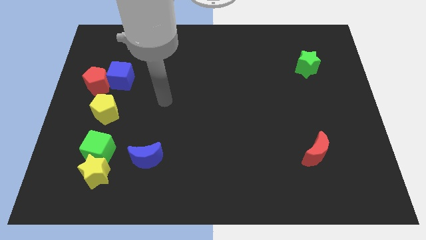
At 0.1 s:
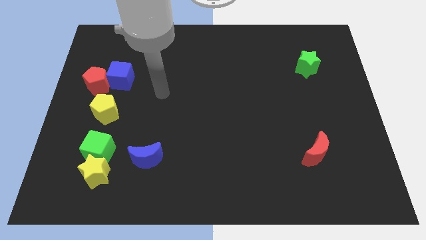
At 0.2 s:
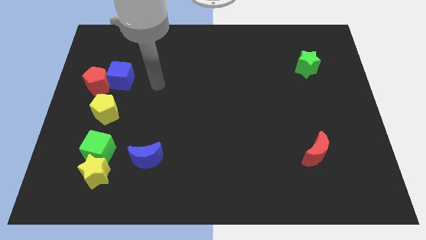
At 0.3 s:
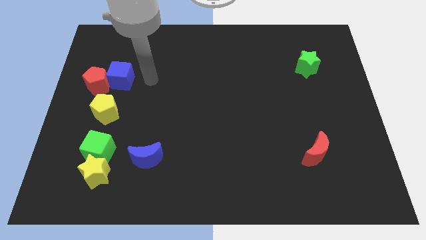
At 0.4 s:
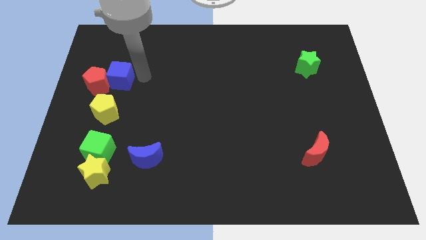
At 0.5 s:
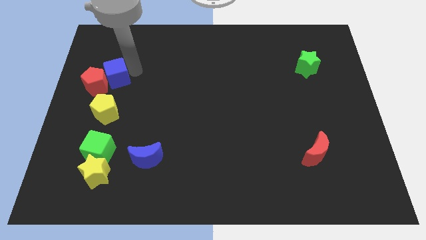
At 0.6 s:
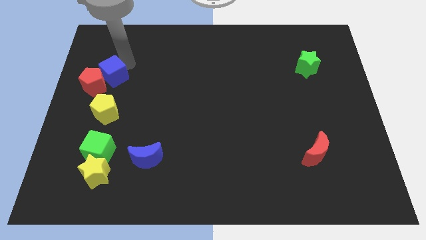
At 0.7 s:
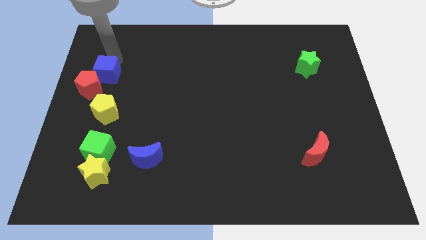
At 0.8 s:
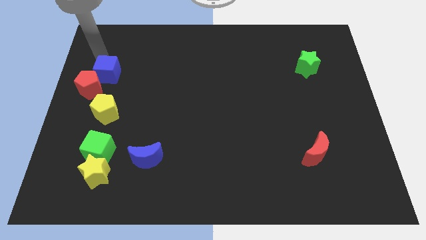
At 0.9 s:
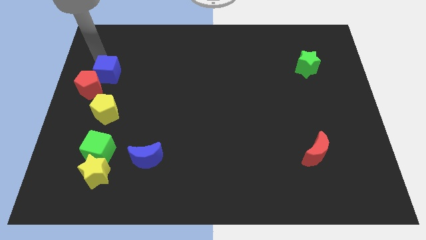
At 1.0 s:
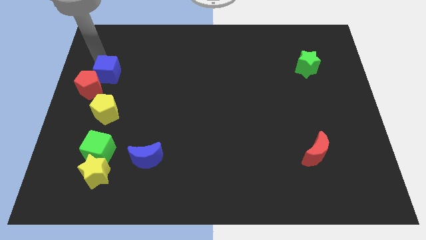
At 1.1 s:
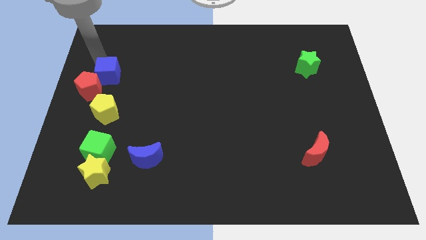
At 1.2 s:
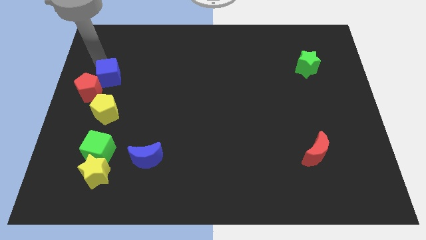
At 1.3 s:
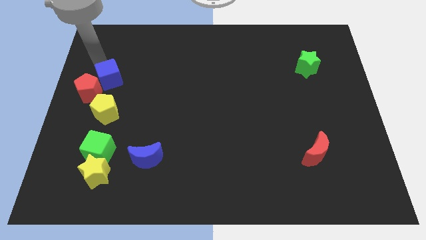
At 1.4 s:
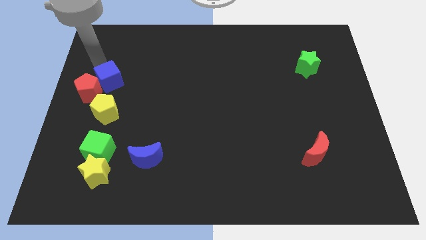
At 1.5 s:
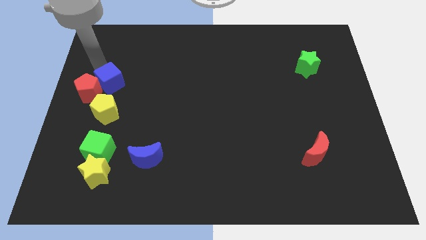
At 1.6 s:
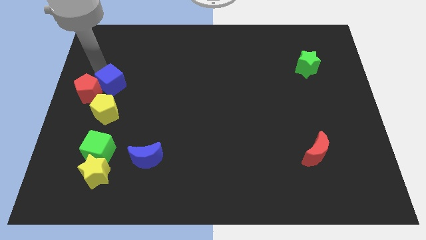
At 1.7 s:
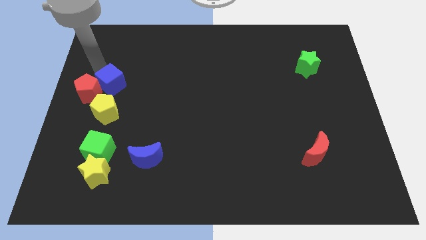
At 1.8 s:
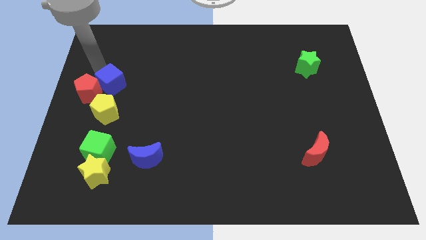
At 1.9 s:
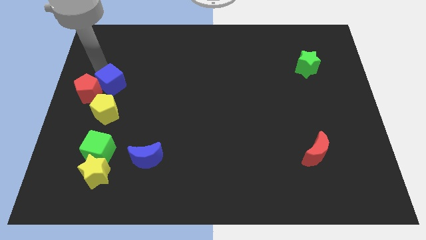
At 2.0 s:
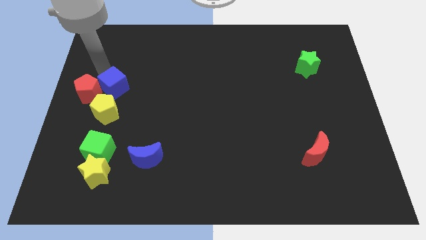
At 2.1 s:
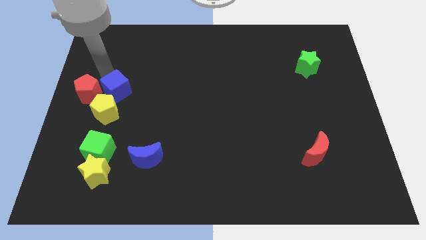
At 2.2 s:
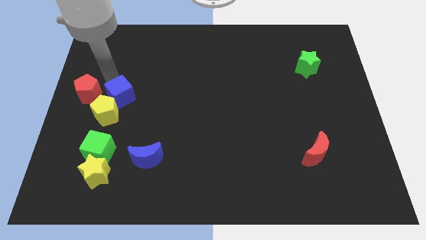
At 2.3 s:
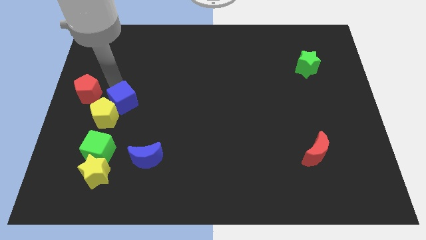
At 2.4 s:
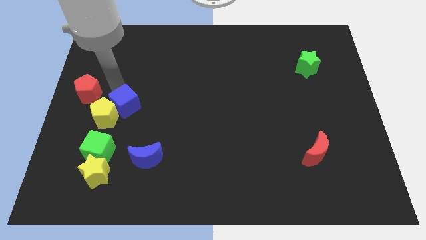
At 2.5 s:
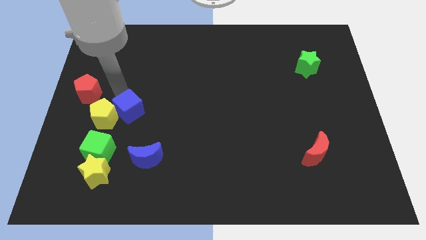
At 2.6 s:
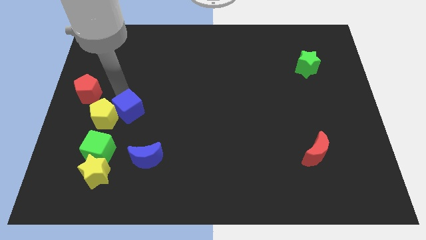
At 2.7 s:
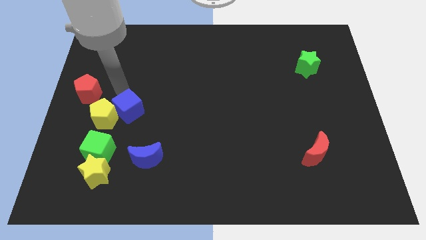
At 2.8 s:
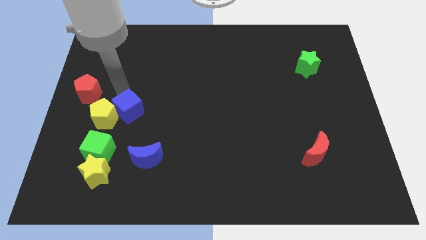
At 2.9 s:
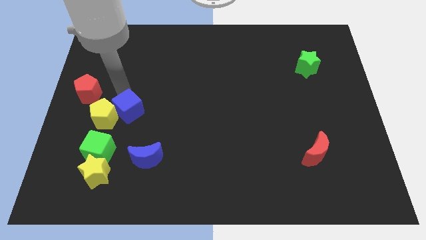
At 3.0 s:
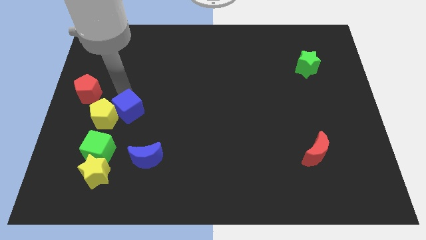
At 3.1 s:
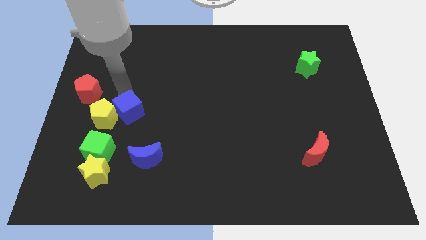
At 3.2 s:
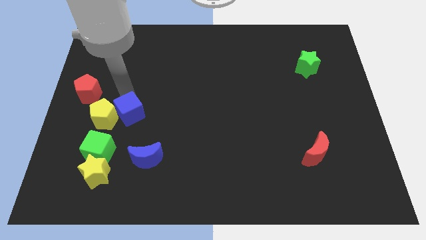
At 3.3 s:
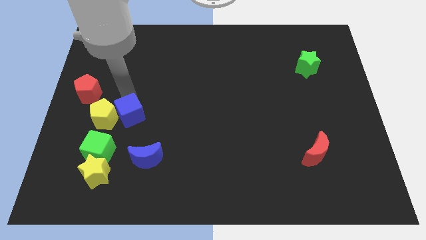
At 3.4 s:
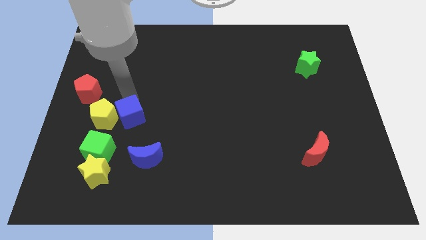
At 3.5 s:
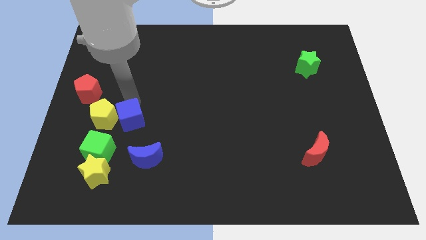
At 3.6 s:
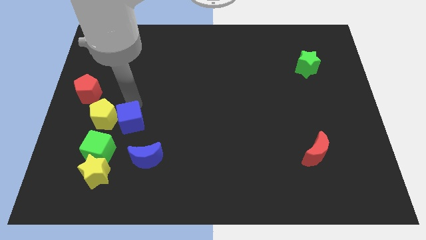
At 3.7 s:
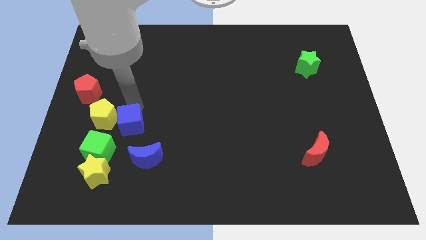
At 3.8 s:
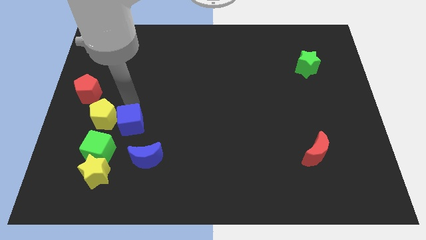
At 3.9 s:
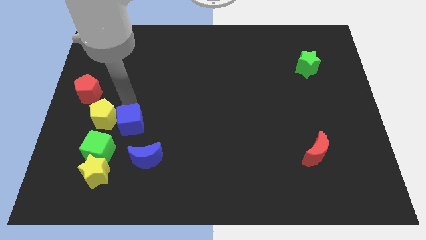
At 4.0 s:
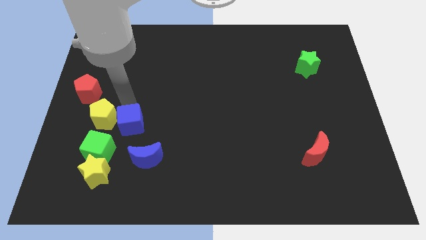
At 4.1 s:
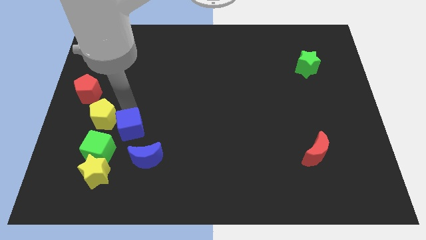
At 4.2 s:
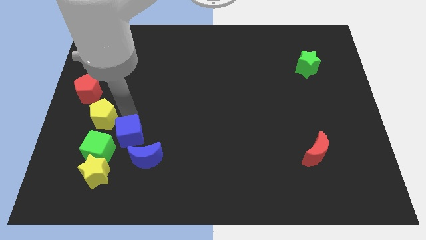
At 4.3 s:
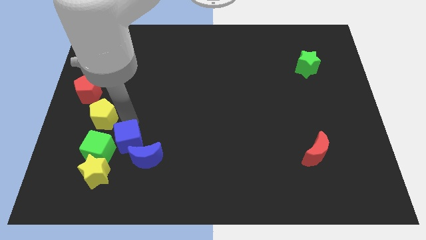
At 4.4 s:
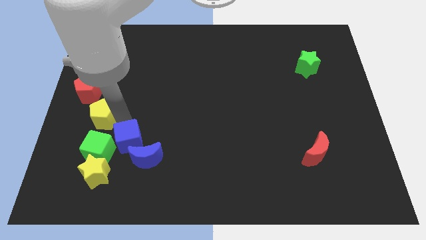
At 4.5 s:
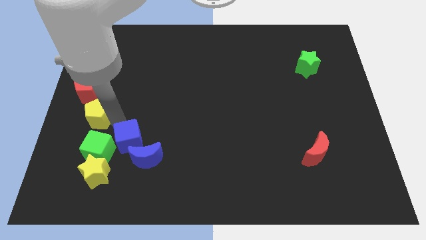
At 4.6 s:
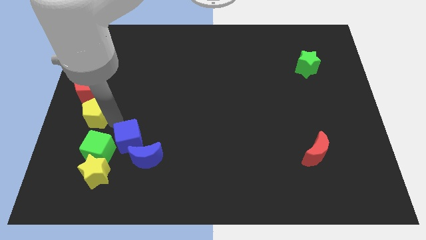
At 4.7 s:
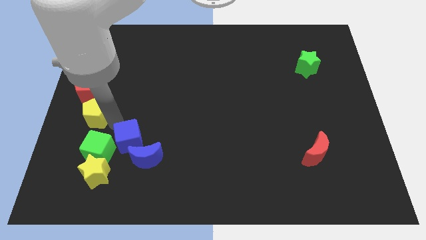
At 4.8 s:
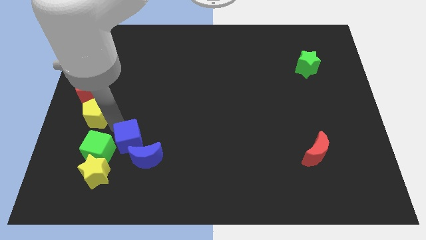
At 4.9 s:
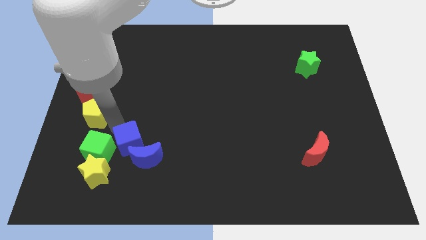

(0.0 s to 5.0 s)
slide the blue cube close to the blue moon

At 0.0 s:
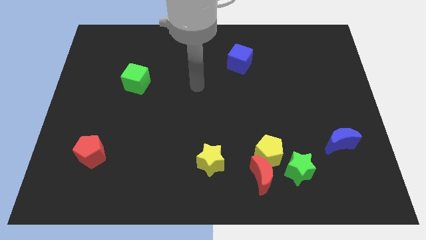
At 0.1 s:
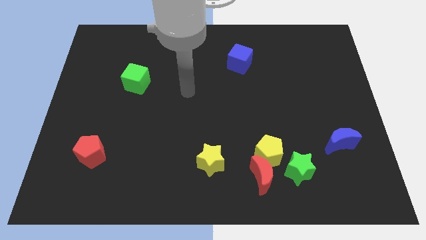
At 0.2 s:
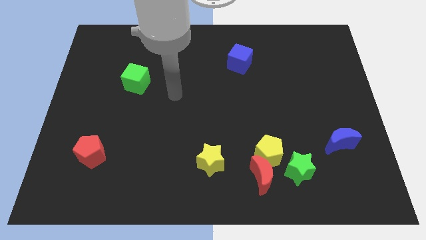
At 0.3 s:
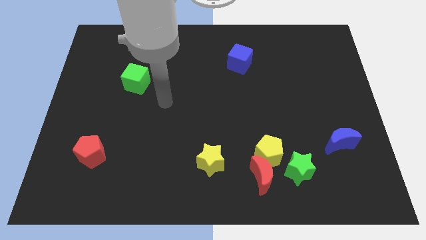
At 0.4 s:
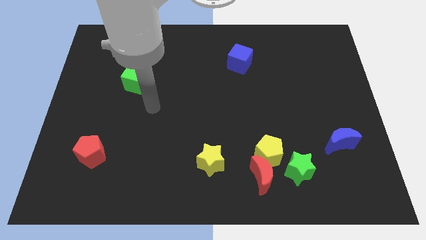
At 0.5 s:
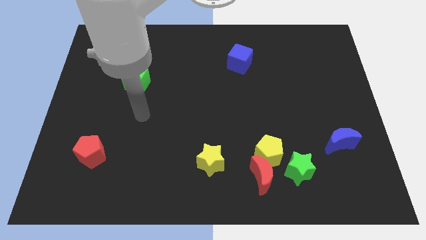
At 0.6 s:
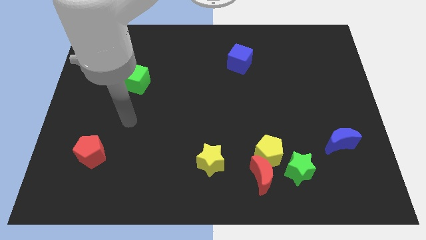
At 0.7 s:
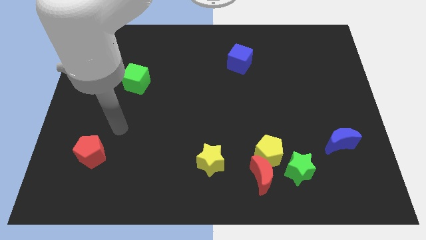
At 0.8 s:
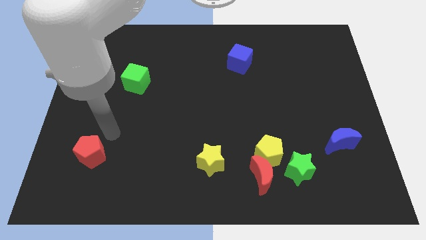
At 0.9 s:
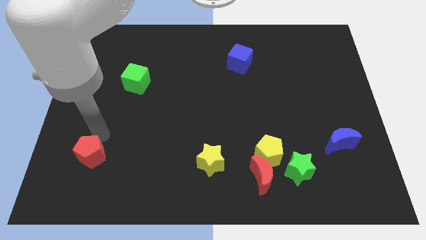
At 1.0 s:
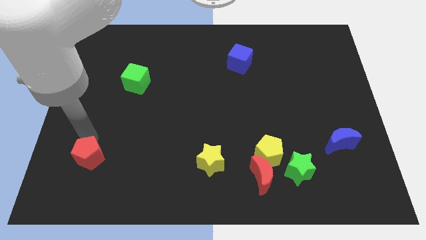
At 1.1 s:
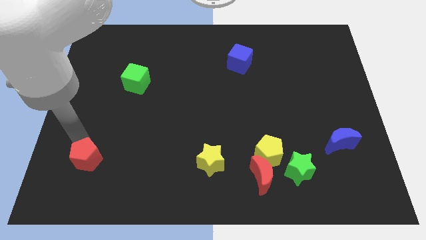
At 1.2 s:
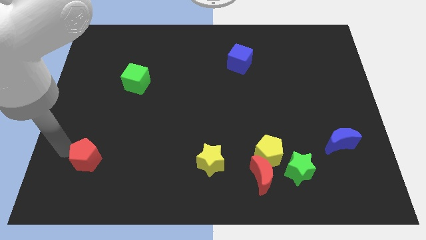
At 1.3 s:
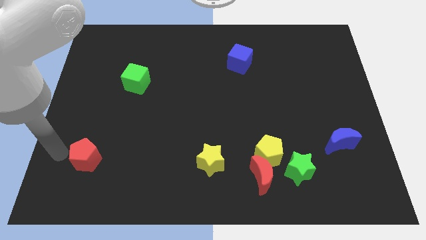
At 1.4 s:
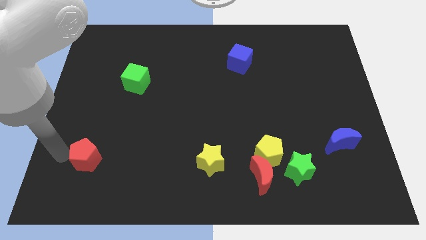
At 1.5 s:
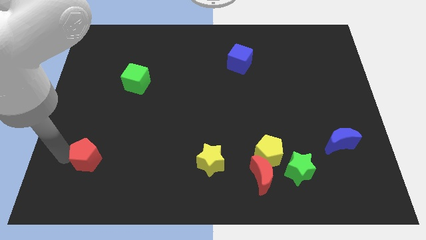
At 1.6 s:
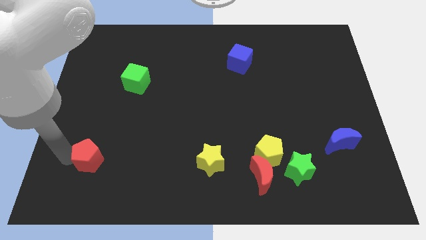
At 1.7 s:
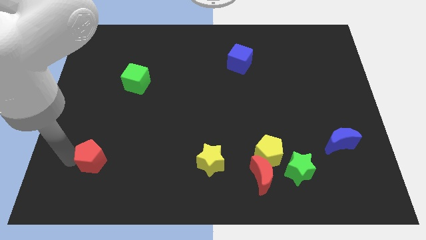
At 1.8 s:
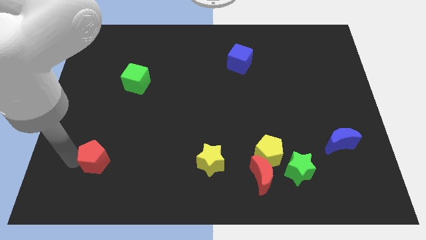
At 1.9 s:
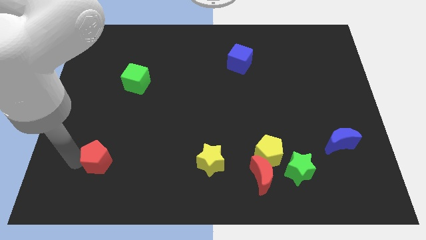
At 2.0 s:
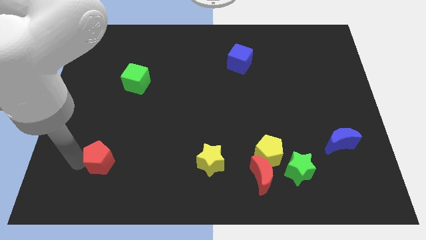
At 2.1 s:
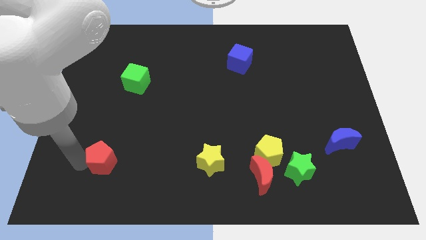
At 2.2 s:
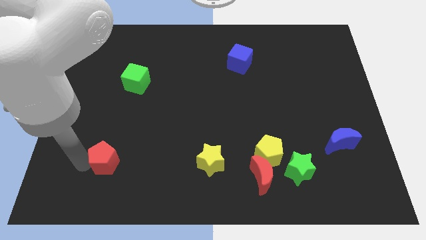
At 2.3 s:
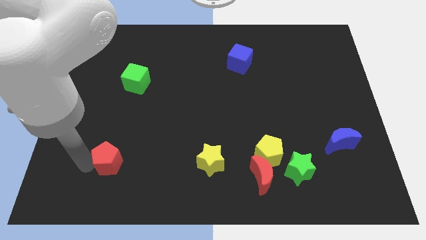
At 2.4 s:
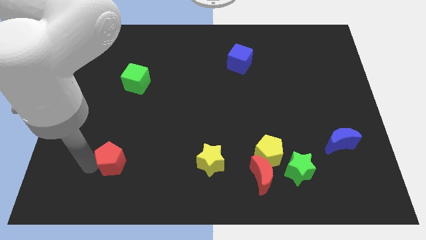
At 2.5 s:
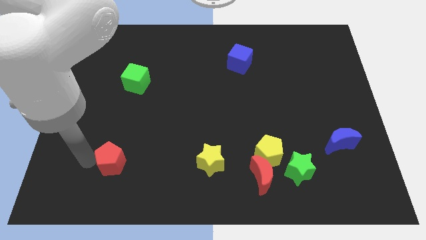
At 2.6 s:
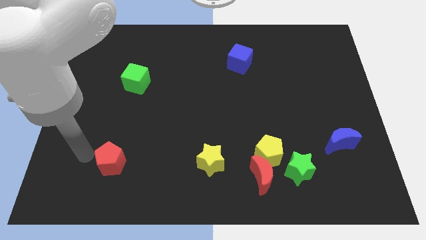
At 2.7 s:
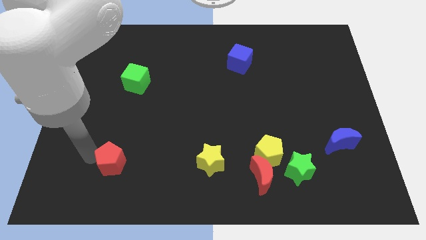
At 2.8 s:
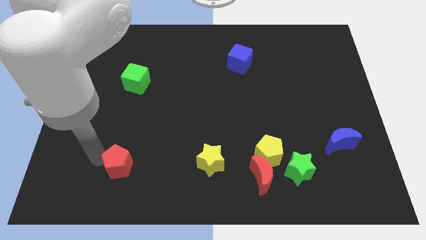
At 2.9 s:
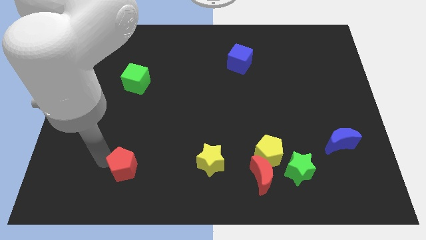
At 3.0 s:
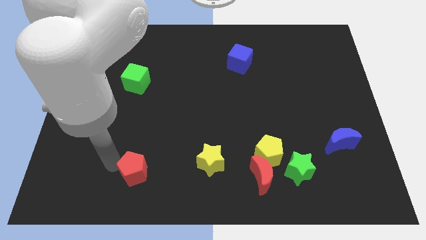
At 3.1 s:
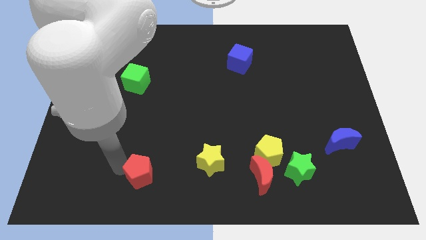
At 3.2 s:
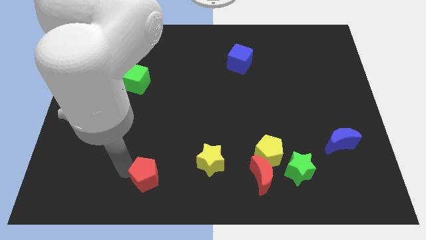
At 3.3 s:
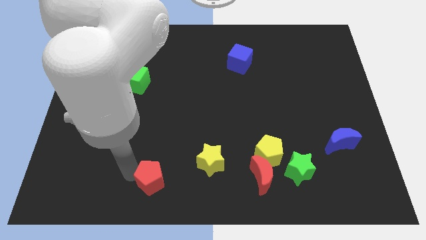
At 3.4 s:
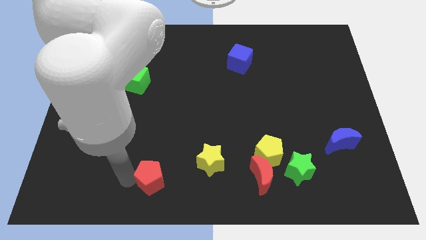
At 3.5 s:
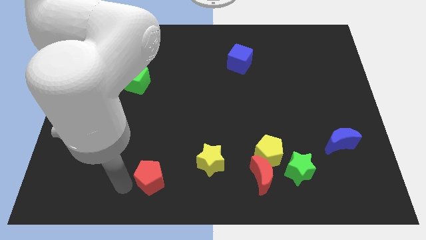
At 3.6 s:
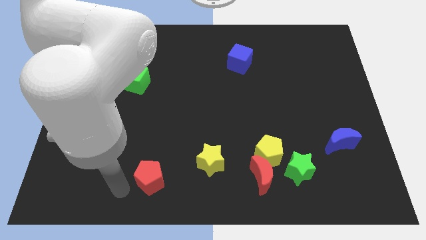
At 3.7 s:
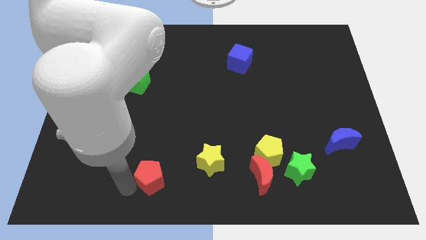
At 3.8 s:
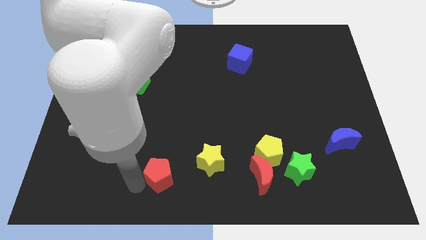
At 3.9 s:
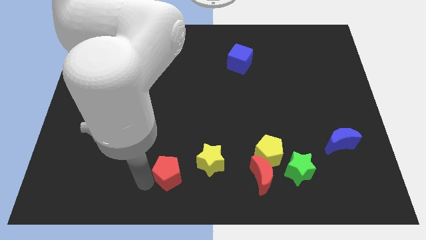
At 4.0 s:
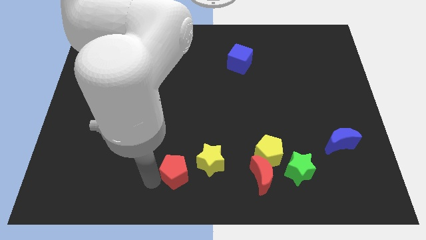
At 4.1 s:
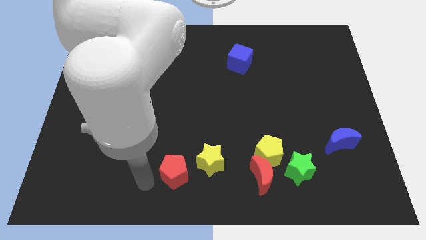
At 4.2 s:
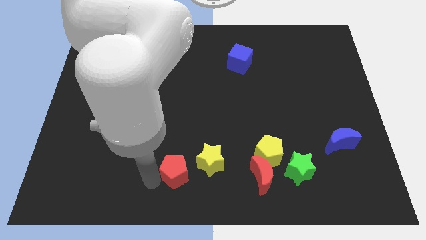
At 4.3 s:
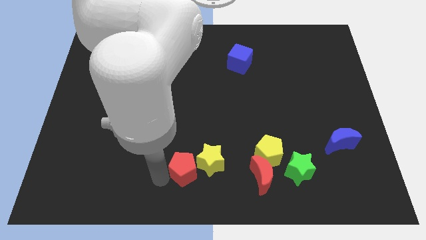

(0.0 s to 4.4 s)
push the red pentagon towards the yellow star
